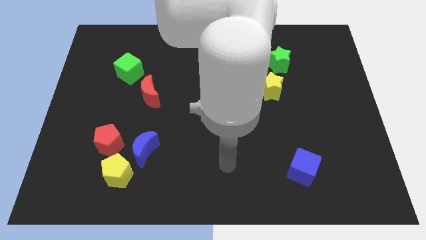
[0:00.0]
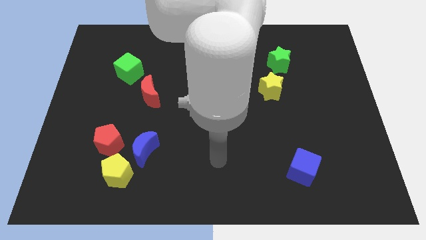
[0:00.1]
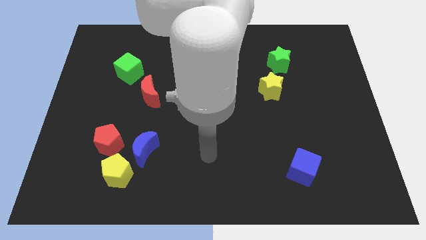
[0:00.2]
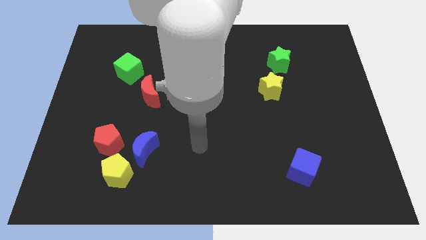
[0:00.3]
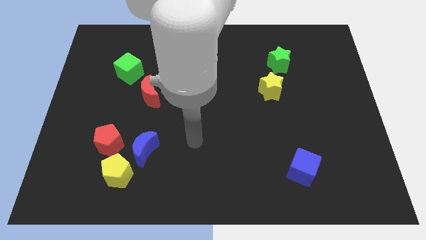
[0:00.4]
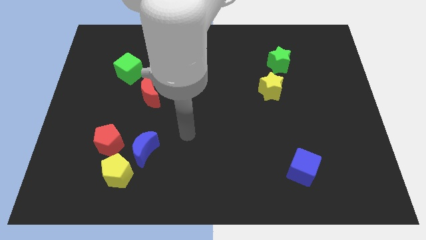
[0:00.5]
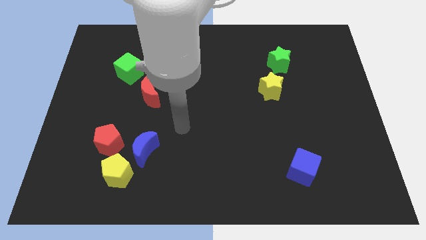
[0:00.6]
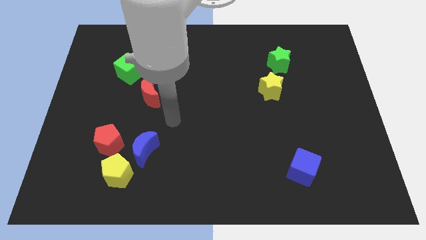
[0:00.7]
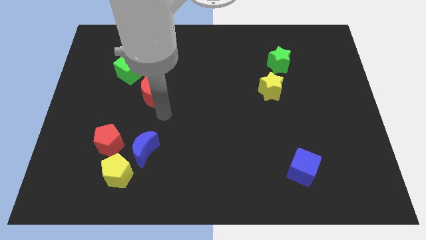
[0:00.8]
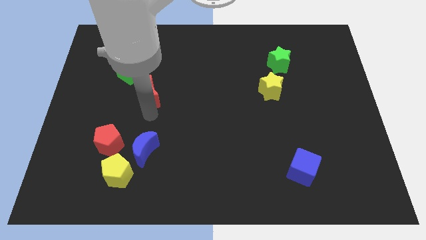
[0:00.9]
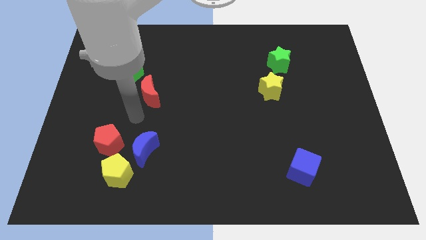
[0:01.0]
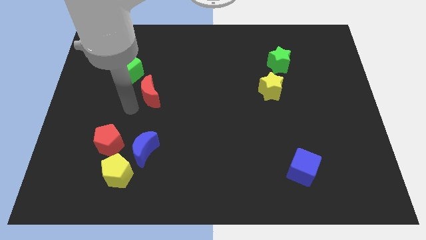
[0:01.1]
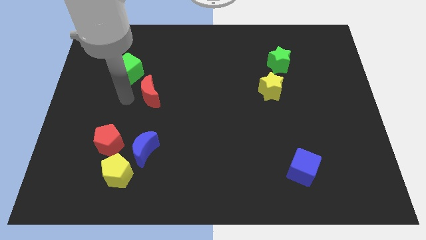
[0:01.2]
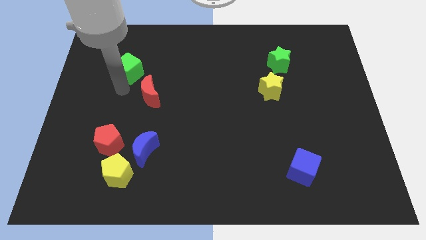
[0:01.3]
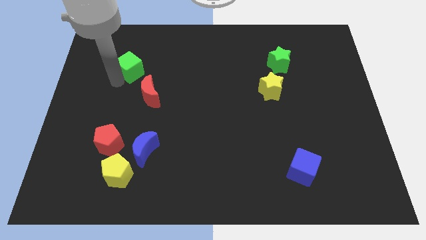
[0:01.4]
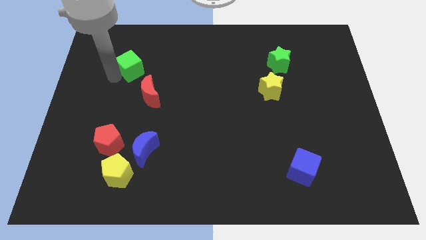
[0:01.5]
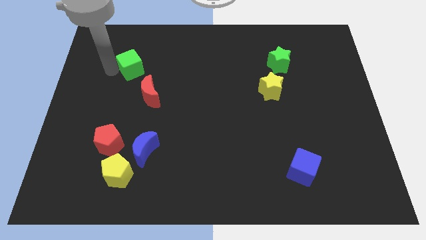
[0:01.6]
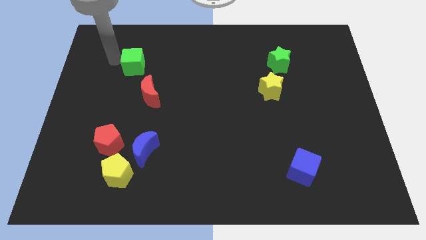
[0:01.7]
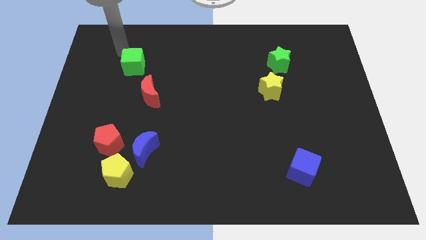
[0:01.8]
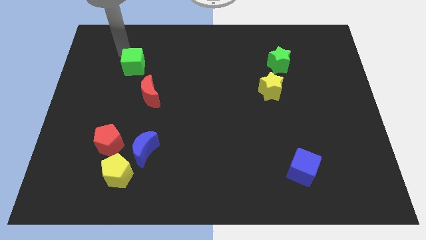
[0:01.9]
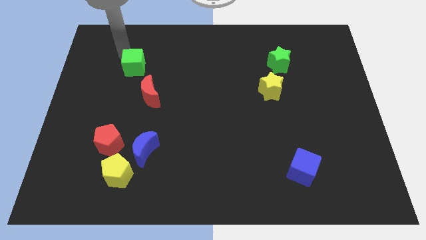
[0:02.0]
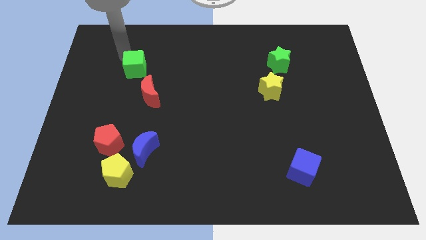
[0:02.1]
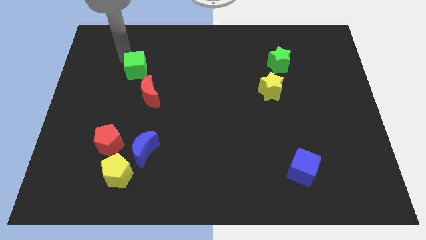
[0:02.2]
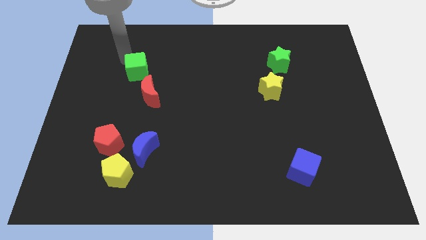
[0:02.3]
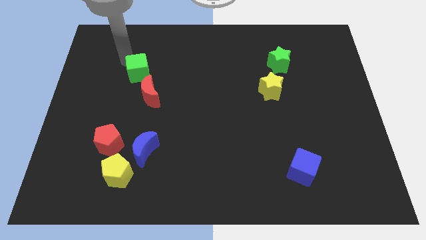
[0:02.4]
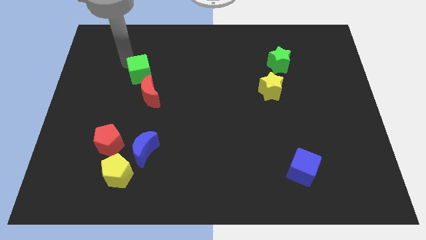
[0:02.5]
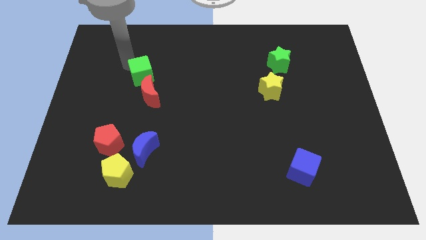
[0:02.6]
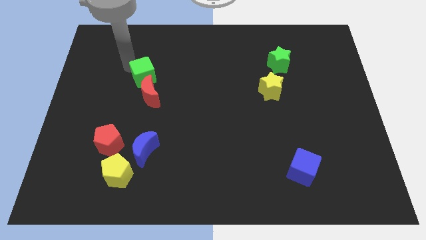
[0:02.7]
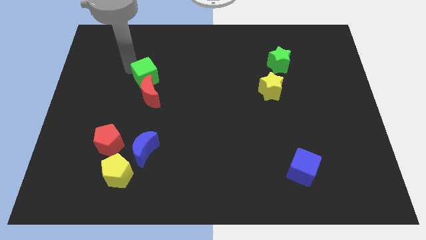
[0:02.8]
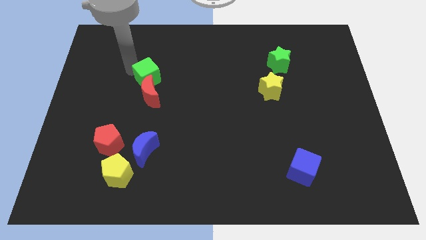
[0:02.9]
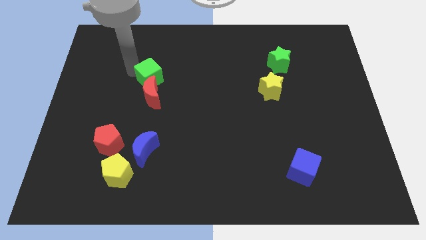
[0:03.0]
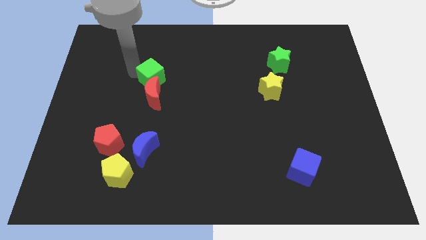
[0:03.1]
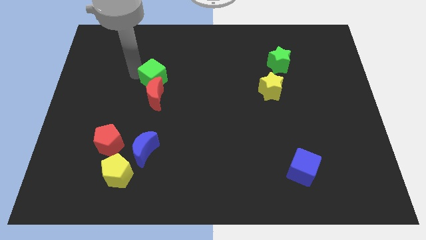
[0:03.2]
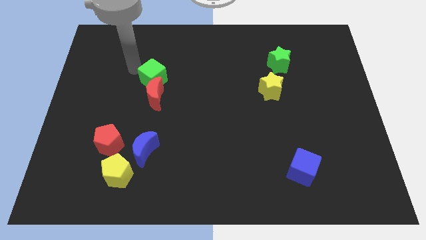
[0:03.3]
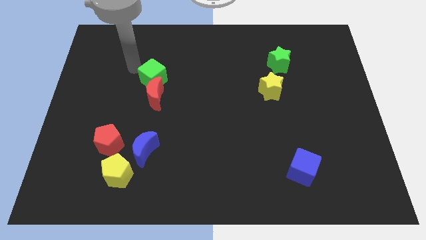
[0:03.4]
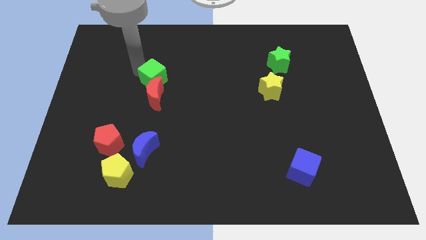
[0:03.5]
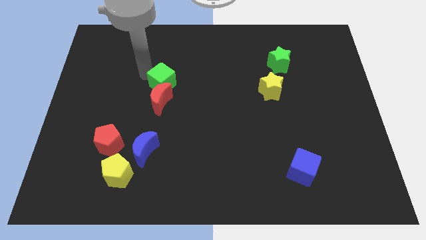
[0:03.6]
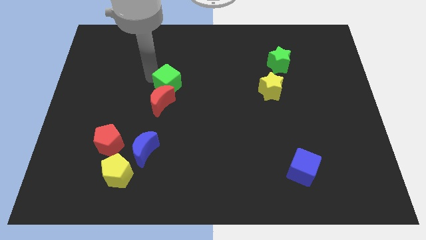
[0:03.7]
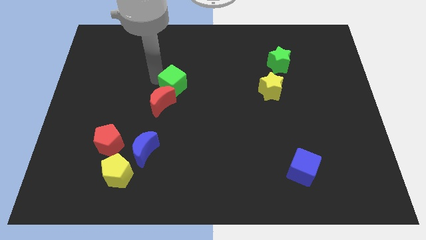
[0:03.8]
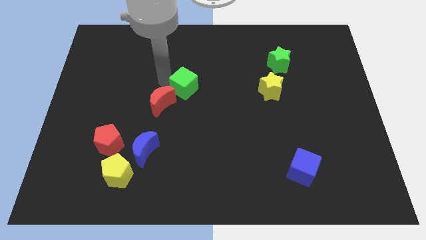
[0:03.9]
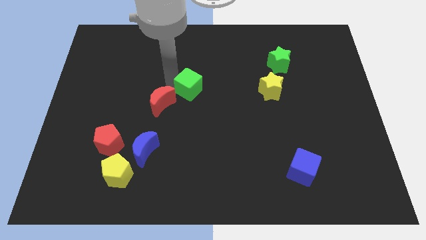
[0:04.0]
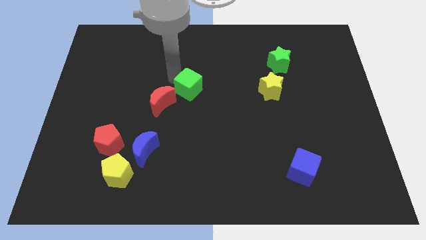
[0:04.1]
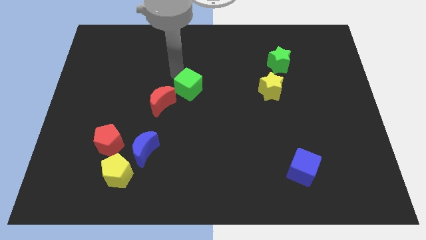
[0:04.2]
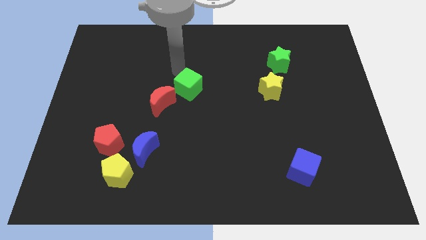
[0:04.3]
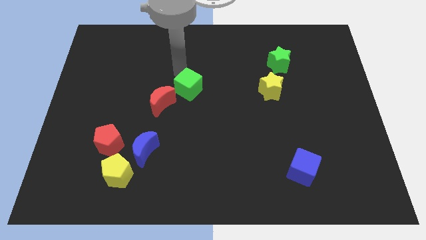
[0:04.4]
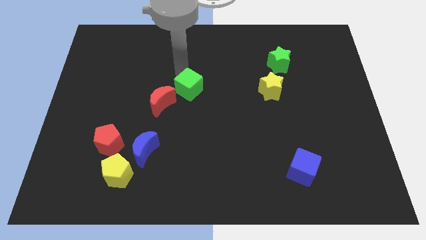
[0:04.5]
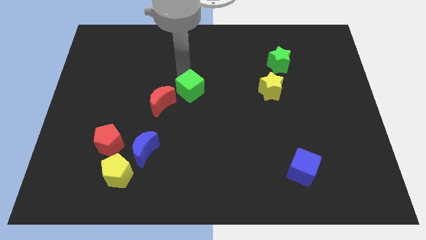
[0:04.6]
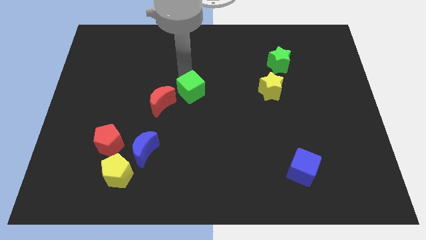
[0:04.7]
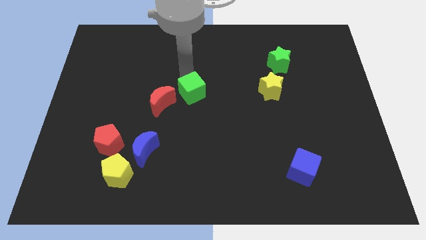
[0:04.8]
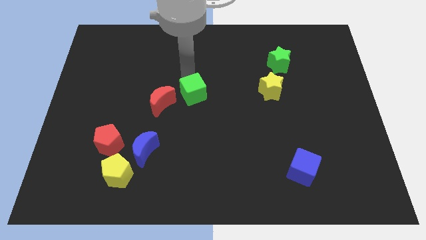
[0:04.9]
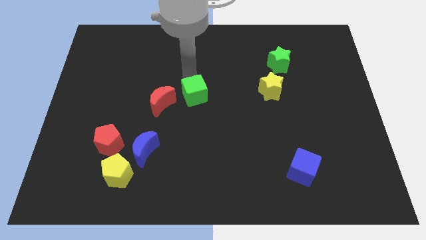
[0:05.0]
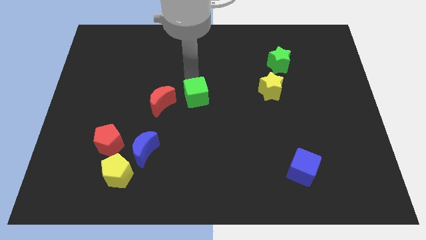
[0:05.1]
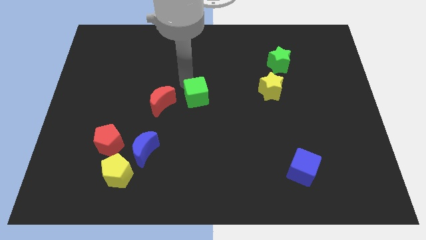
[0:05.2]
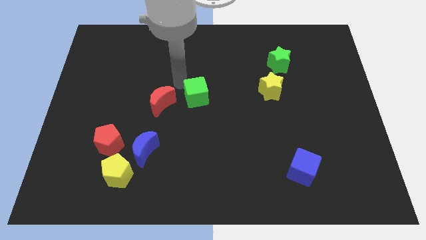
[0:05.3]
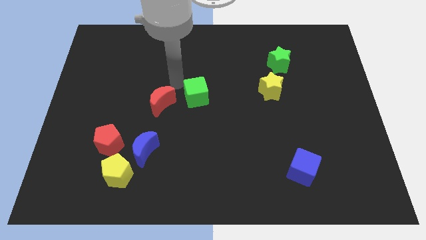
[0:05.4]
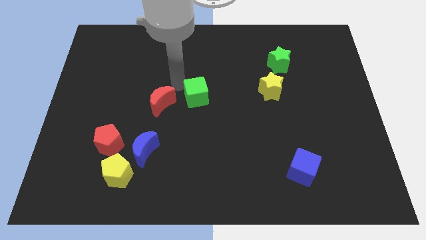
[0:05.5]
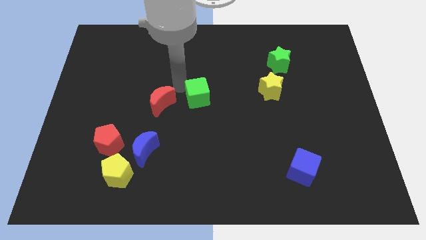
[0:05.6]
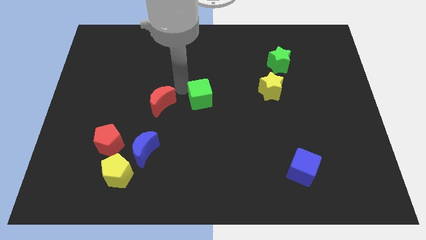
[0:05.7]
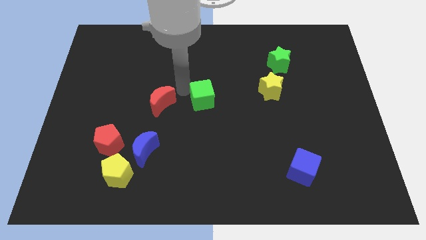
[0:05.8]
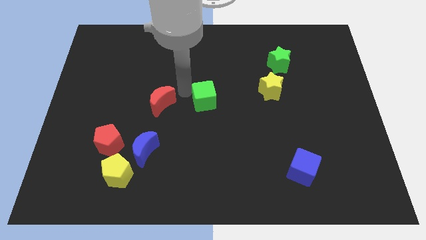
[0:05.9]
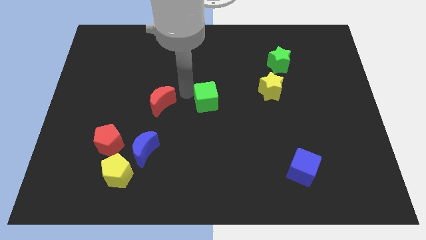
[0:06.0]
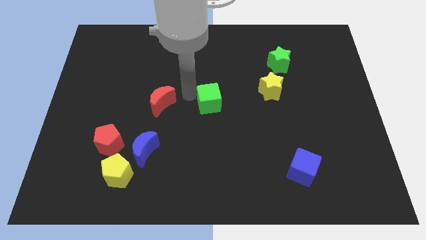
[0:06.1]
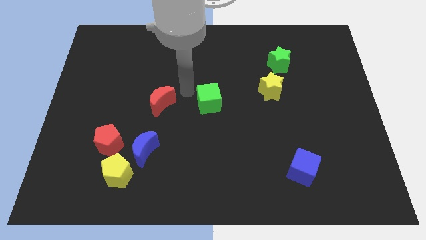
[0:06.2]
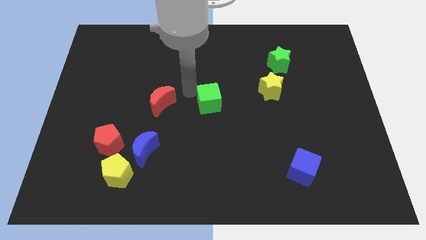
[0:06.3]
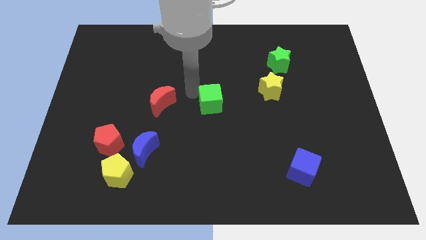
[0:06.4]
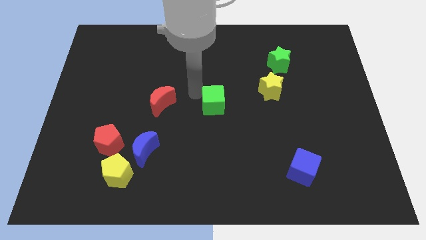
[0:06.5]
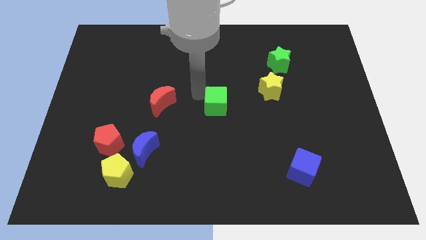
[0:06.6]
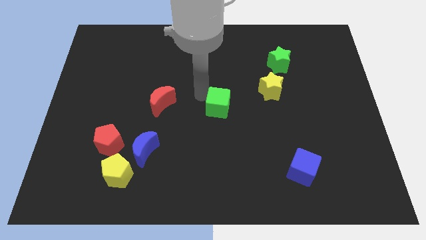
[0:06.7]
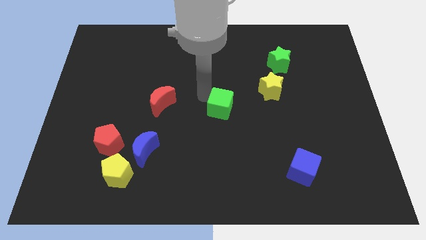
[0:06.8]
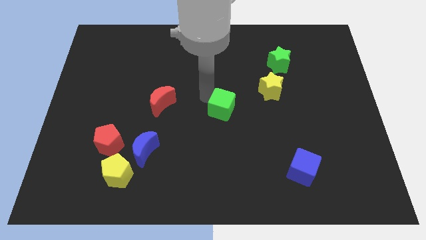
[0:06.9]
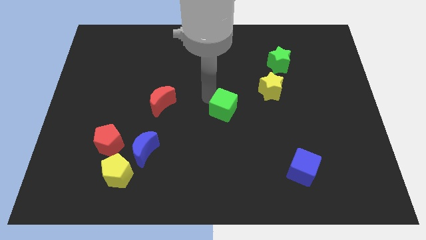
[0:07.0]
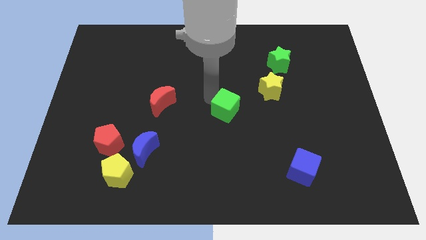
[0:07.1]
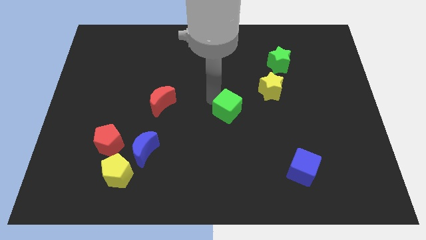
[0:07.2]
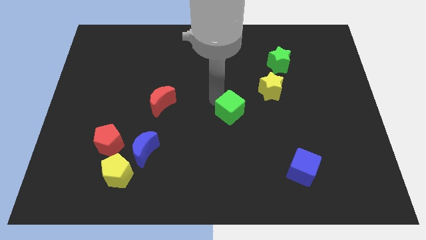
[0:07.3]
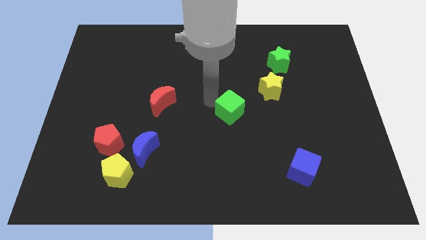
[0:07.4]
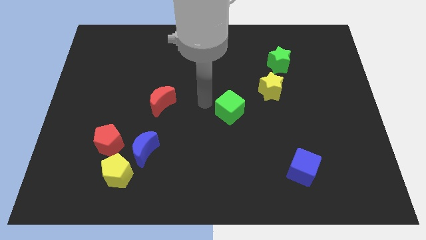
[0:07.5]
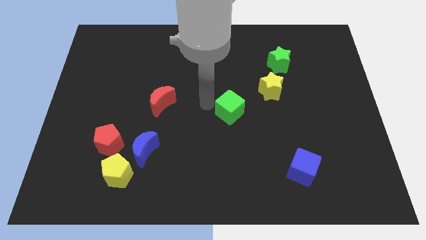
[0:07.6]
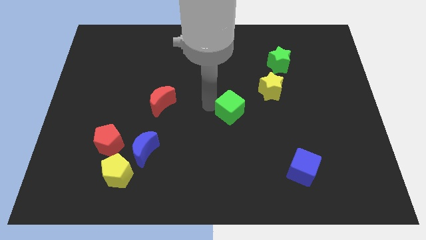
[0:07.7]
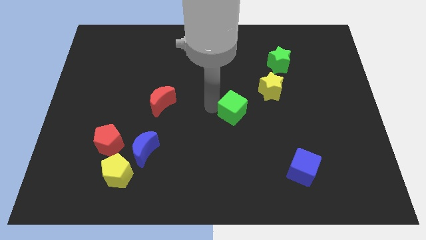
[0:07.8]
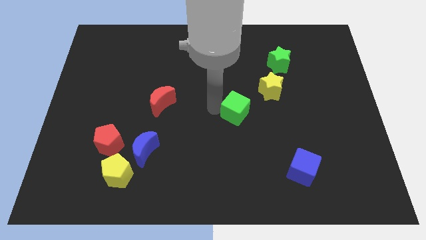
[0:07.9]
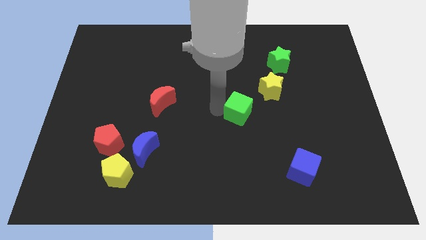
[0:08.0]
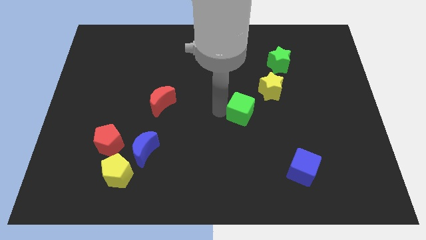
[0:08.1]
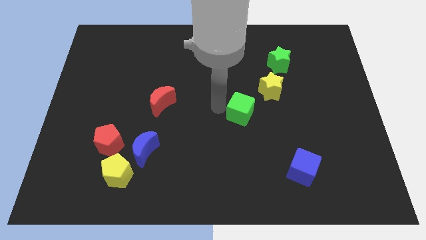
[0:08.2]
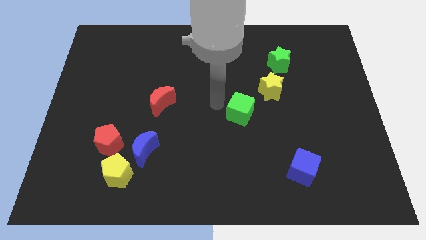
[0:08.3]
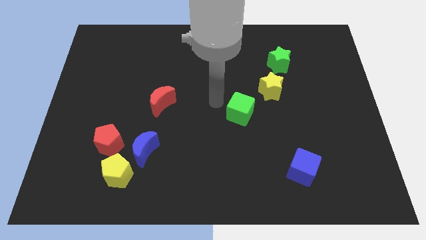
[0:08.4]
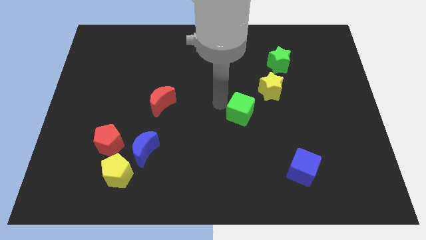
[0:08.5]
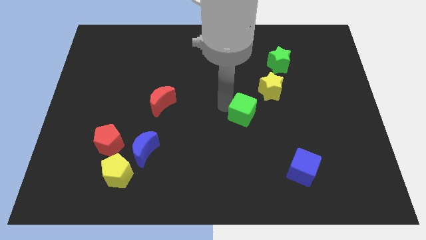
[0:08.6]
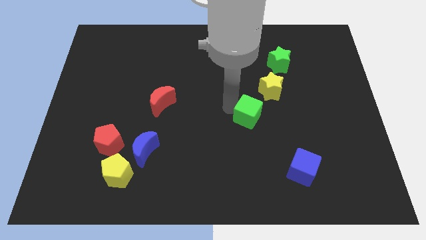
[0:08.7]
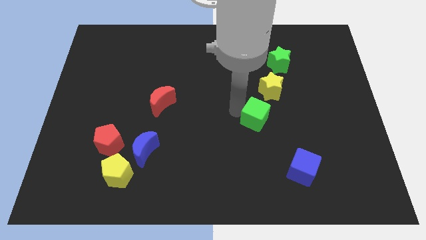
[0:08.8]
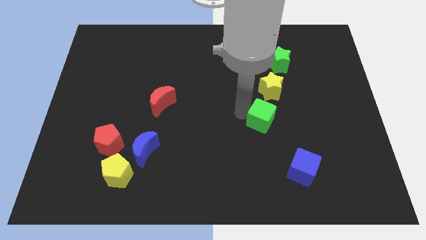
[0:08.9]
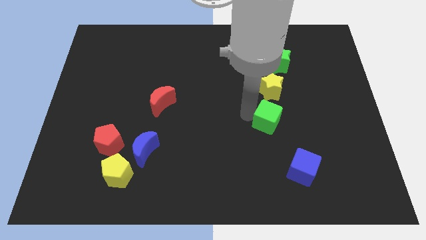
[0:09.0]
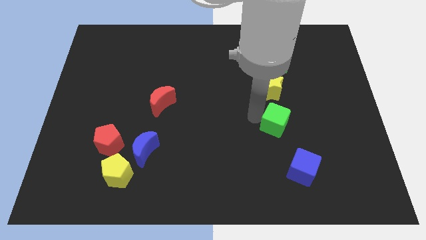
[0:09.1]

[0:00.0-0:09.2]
push the green cube to the top side of the blue cube
